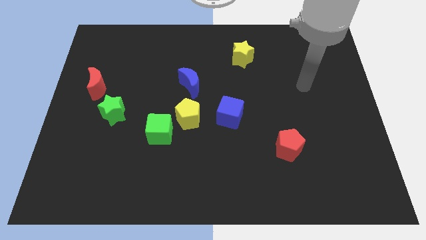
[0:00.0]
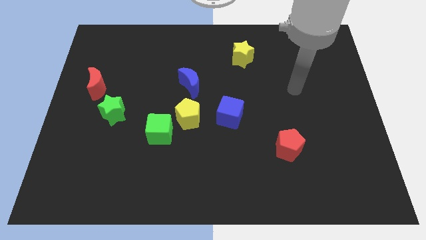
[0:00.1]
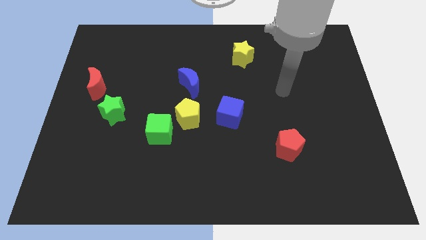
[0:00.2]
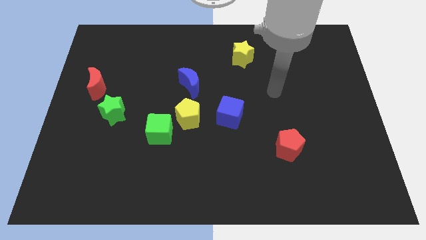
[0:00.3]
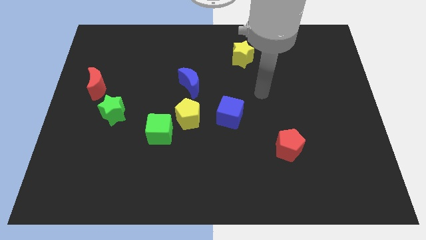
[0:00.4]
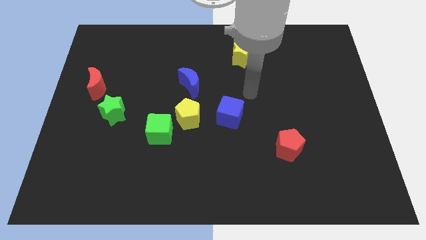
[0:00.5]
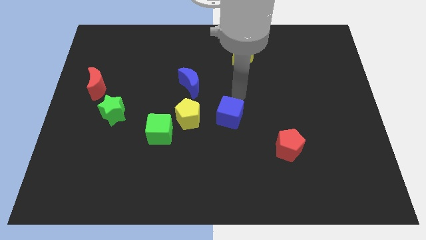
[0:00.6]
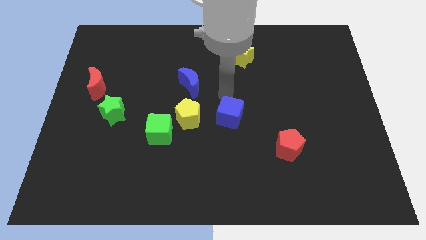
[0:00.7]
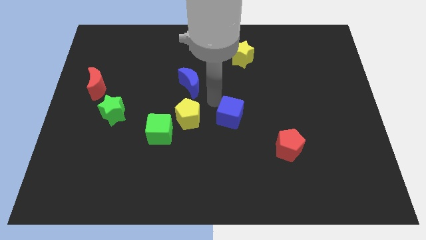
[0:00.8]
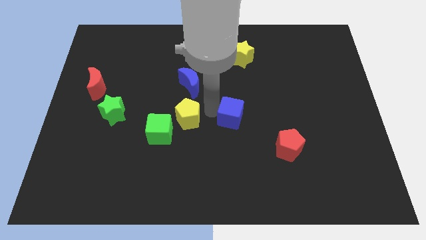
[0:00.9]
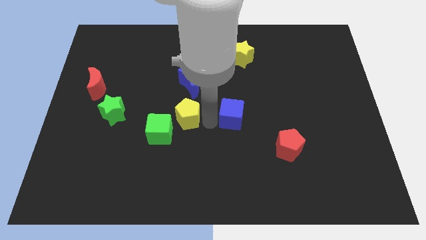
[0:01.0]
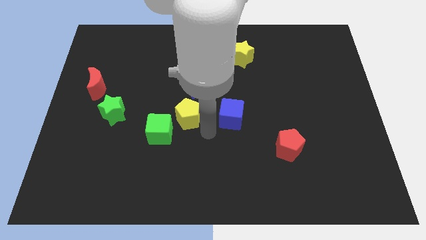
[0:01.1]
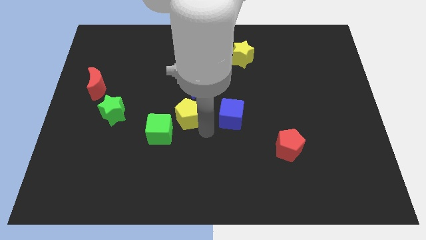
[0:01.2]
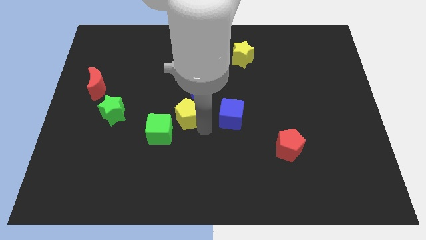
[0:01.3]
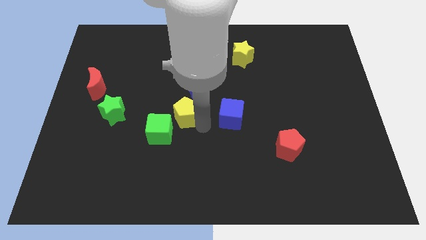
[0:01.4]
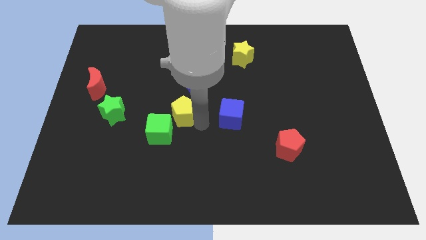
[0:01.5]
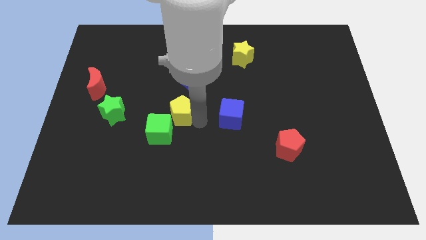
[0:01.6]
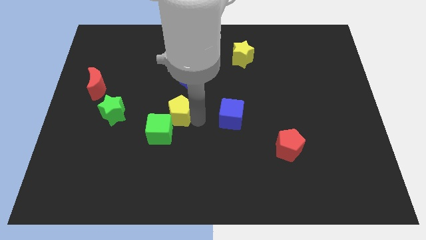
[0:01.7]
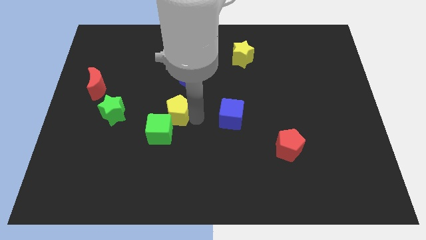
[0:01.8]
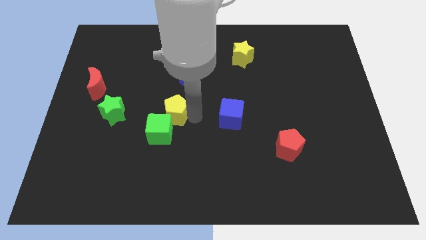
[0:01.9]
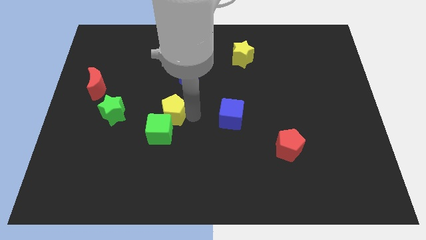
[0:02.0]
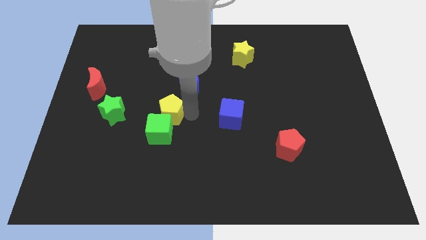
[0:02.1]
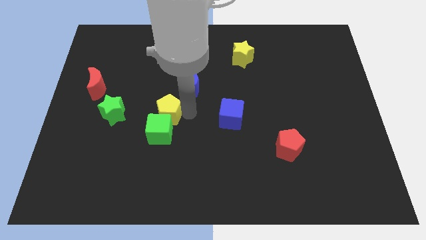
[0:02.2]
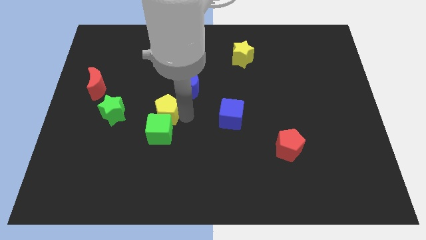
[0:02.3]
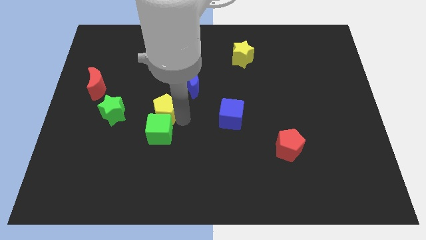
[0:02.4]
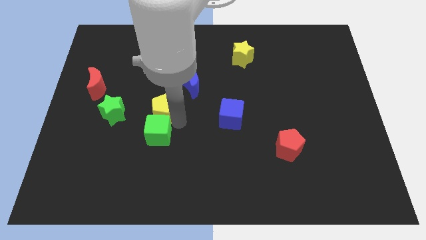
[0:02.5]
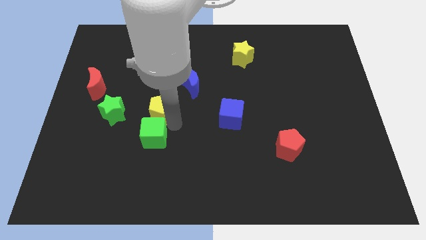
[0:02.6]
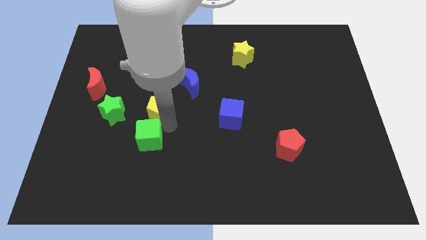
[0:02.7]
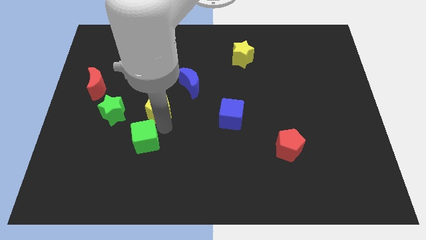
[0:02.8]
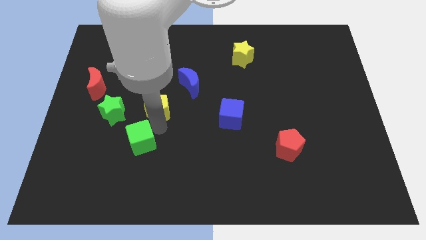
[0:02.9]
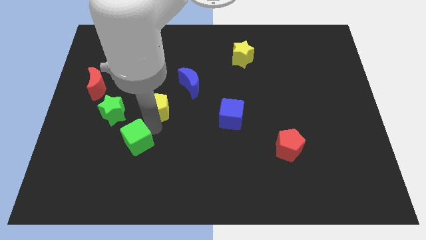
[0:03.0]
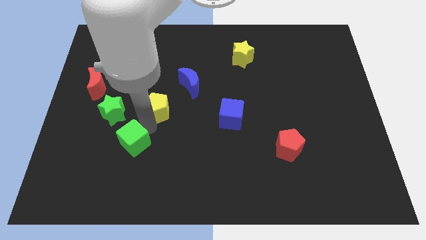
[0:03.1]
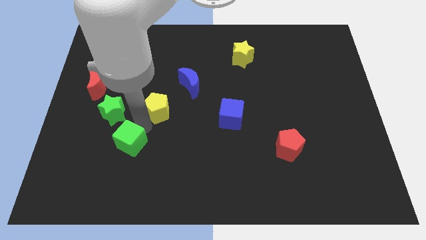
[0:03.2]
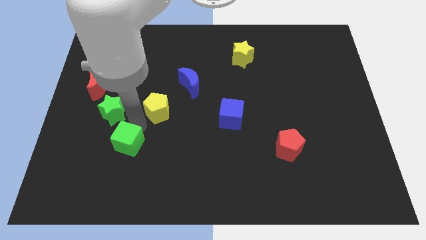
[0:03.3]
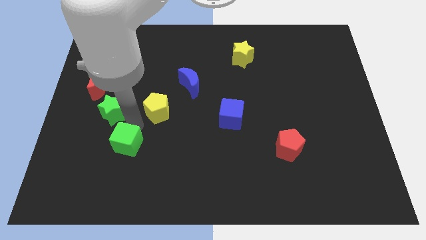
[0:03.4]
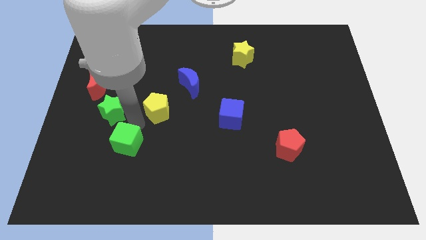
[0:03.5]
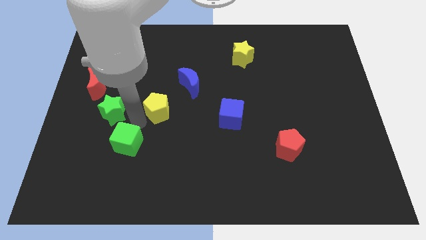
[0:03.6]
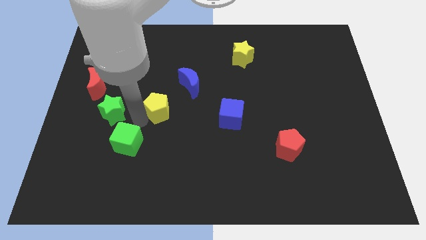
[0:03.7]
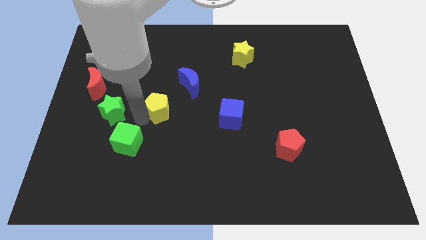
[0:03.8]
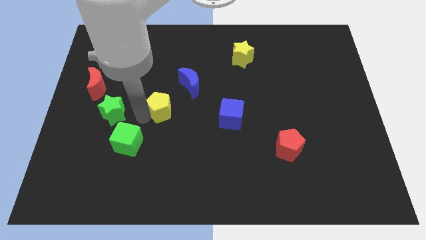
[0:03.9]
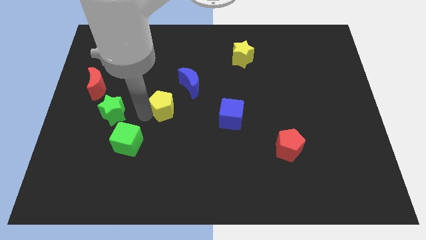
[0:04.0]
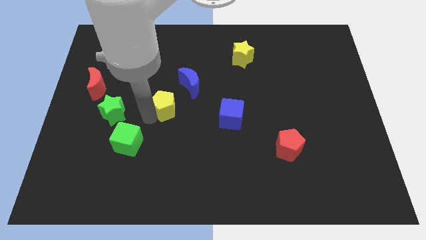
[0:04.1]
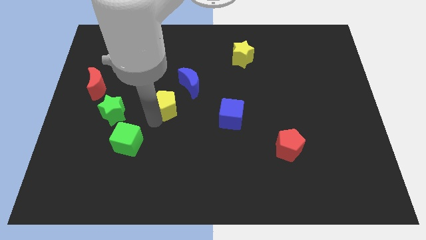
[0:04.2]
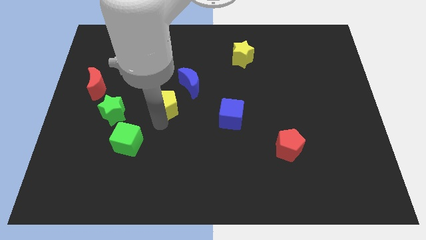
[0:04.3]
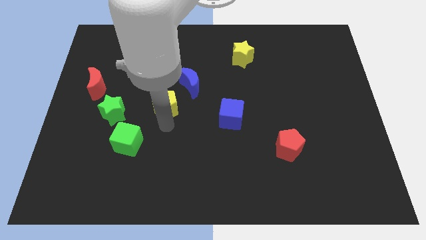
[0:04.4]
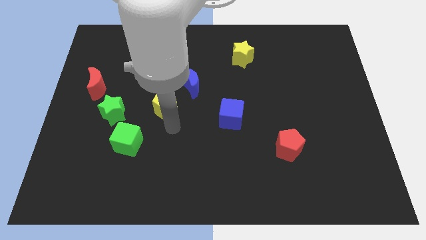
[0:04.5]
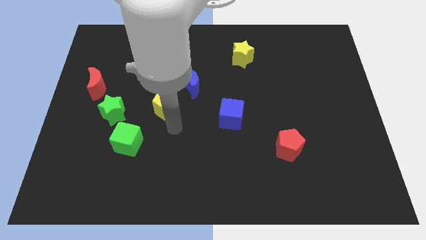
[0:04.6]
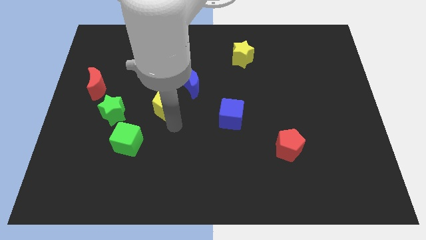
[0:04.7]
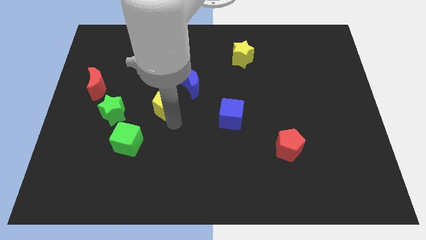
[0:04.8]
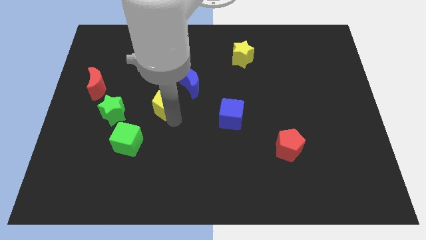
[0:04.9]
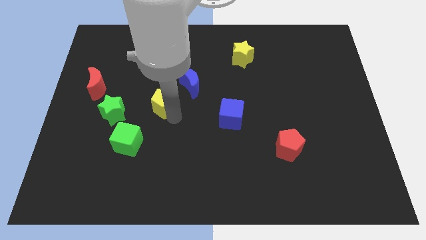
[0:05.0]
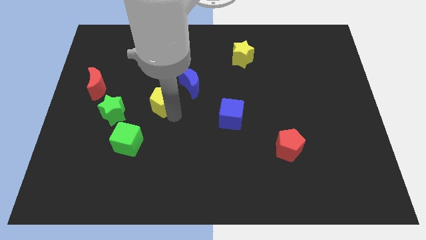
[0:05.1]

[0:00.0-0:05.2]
move the yellow pentagon up and to the left somewhat

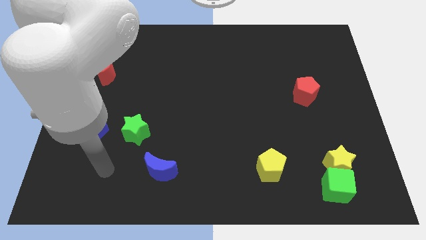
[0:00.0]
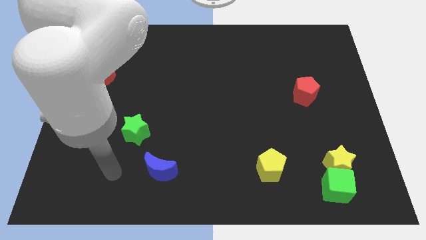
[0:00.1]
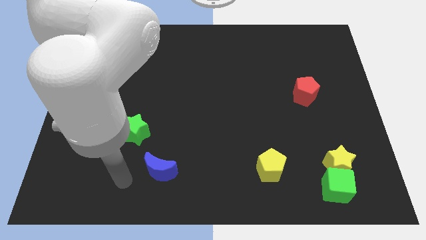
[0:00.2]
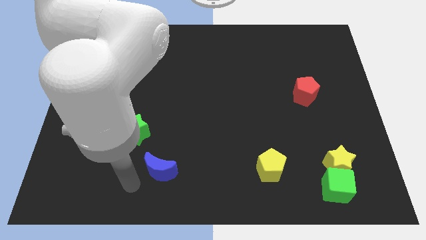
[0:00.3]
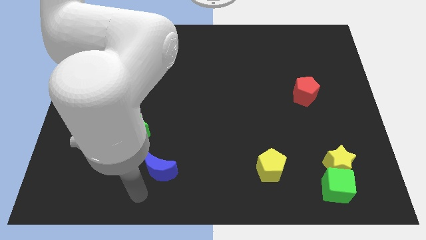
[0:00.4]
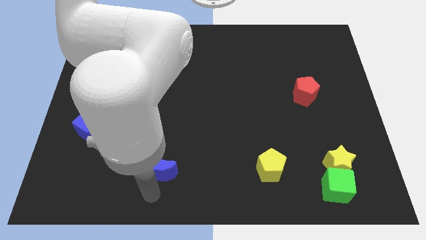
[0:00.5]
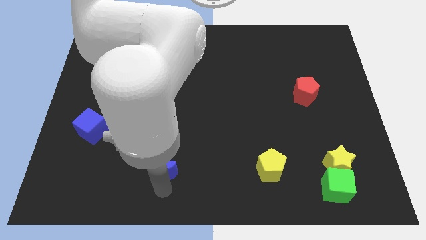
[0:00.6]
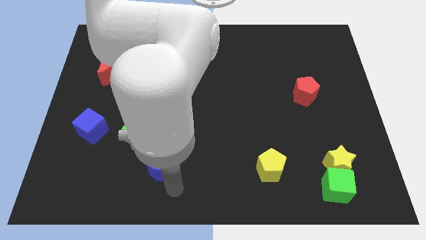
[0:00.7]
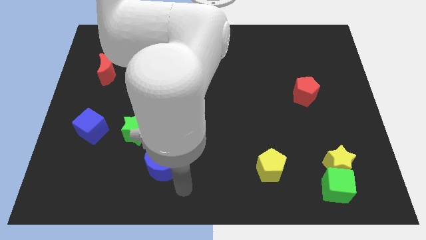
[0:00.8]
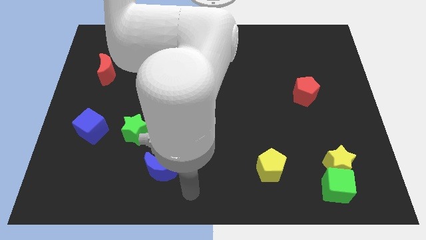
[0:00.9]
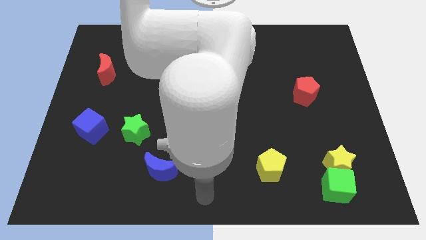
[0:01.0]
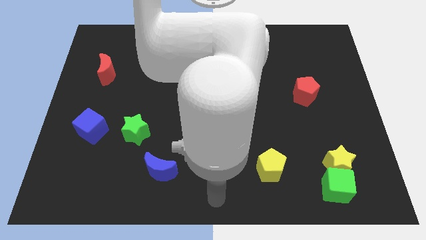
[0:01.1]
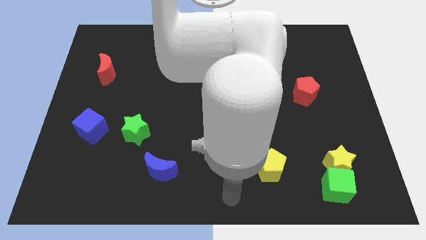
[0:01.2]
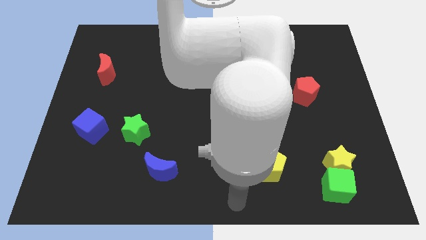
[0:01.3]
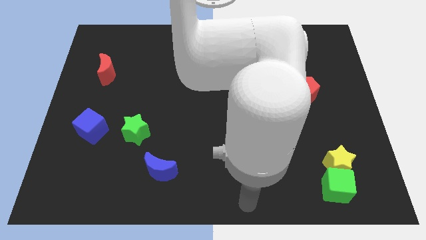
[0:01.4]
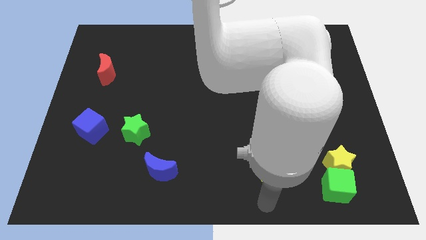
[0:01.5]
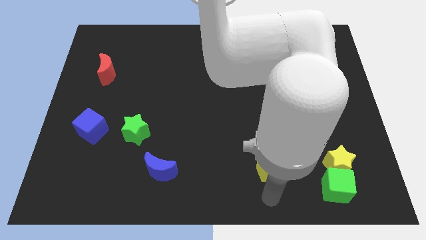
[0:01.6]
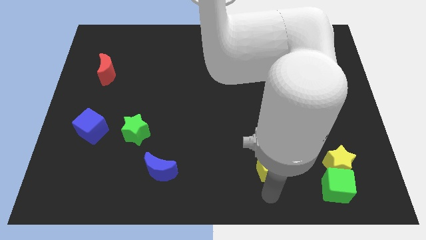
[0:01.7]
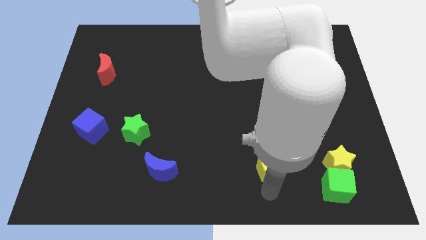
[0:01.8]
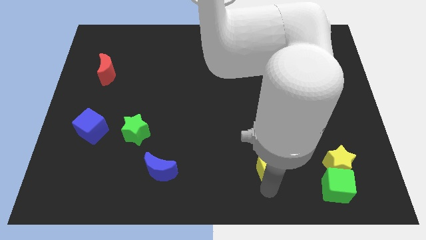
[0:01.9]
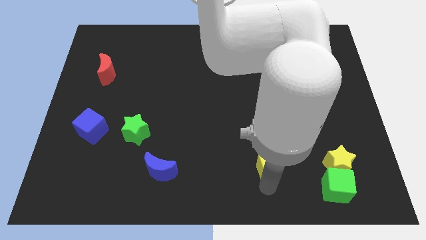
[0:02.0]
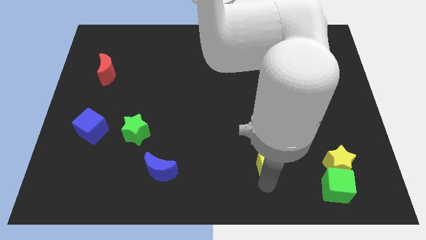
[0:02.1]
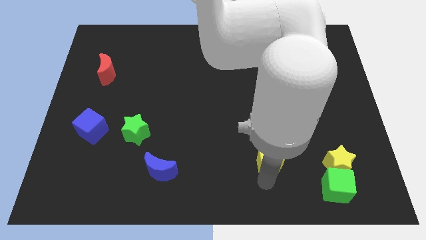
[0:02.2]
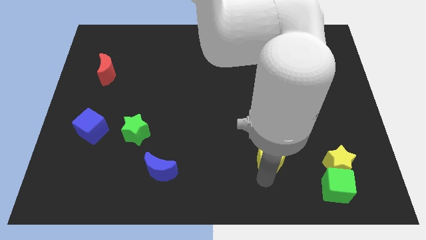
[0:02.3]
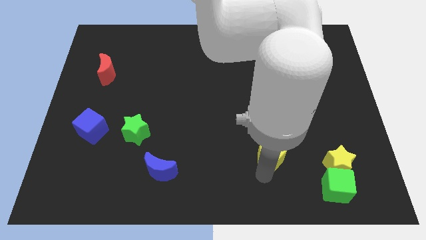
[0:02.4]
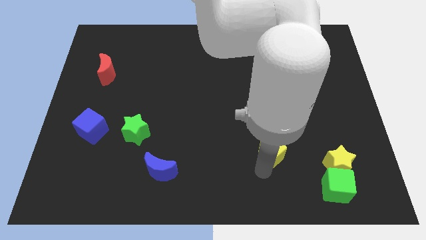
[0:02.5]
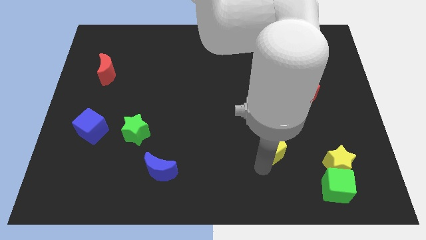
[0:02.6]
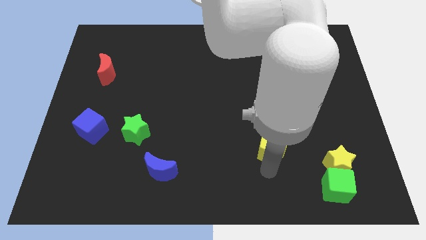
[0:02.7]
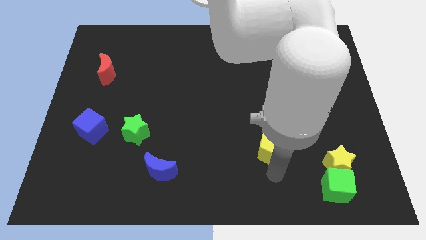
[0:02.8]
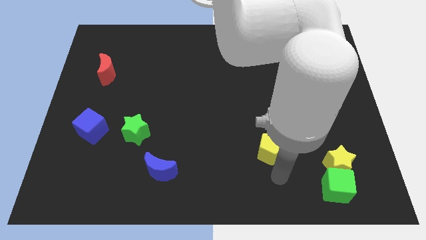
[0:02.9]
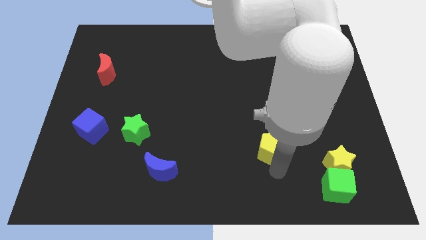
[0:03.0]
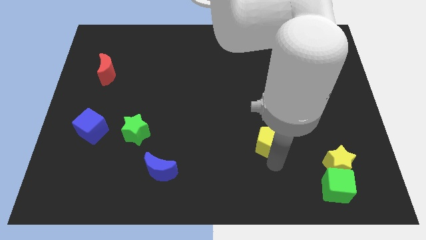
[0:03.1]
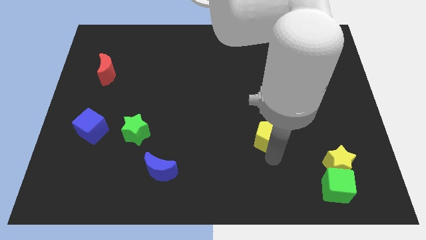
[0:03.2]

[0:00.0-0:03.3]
move the yellow pentagon a little bit upwards
